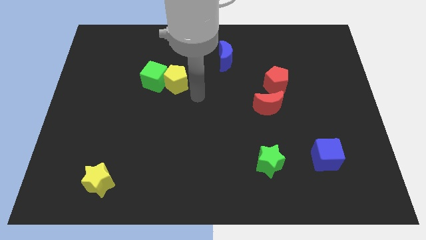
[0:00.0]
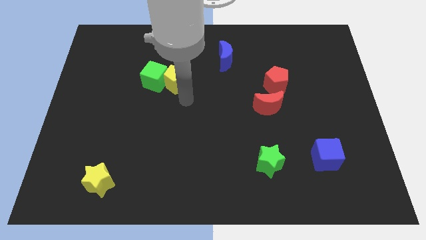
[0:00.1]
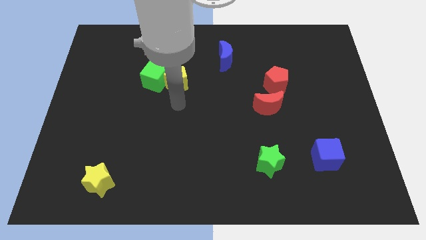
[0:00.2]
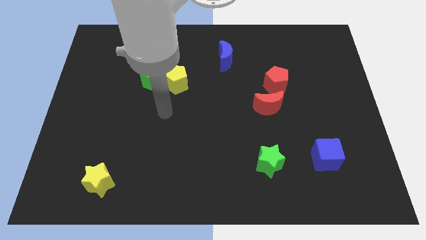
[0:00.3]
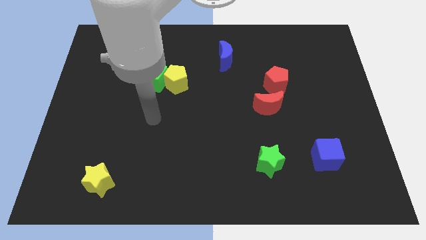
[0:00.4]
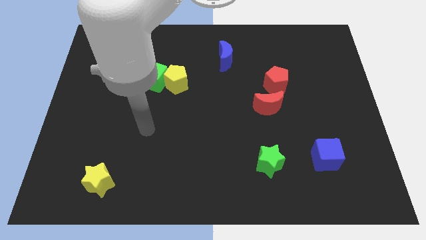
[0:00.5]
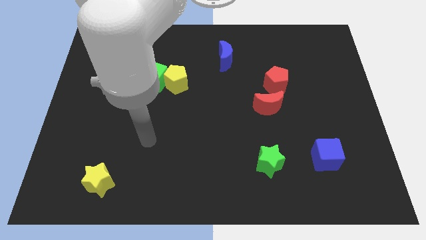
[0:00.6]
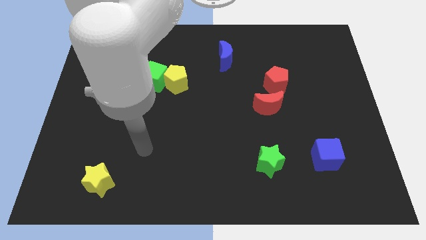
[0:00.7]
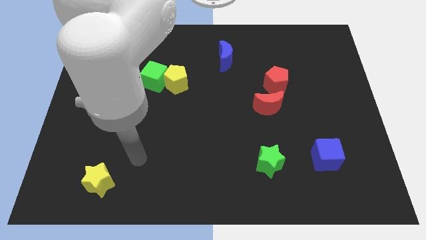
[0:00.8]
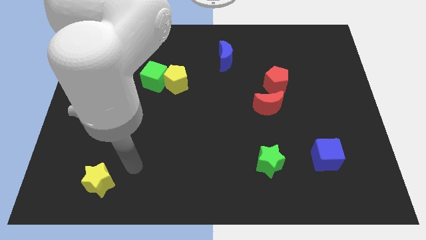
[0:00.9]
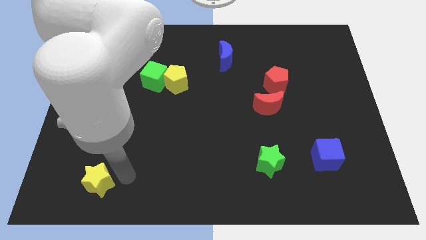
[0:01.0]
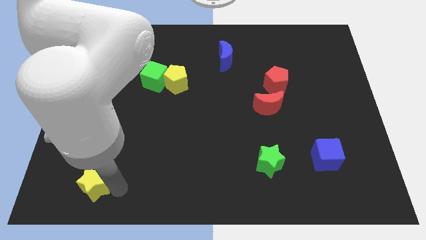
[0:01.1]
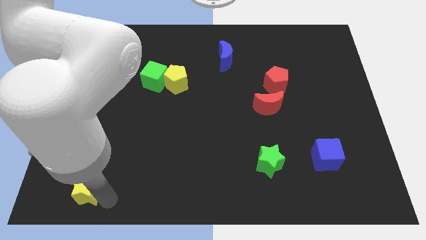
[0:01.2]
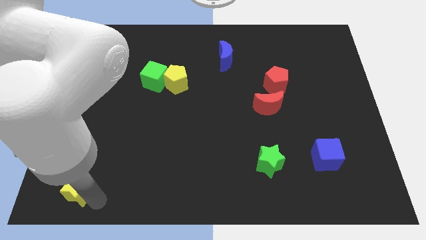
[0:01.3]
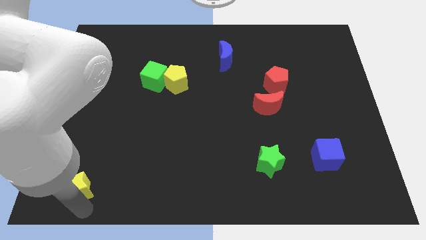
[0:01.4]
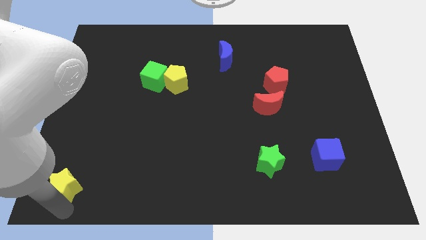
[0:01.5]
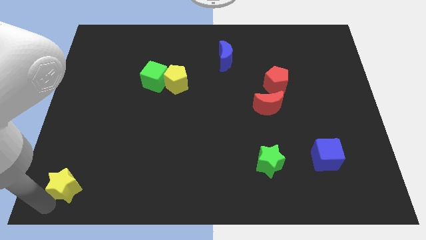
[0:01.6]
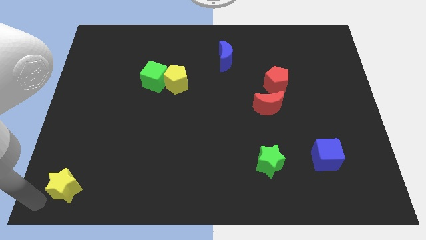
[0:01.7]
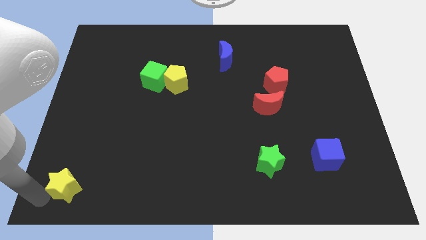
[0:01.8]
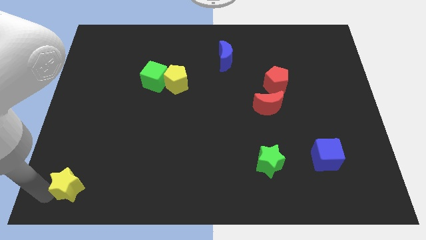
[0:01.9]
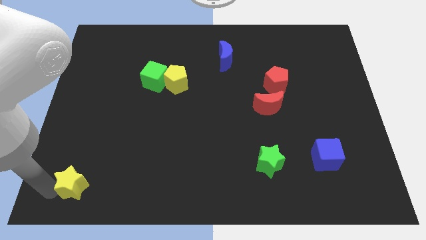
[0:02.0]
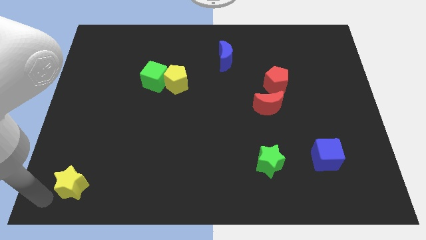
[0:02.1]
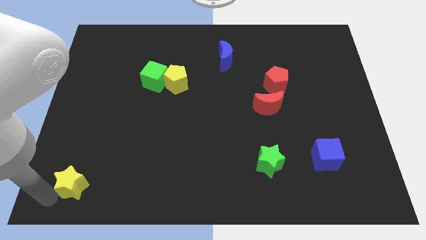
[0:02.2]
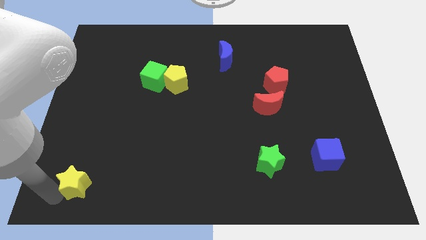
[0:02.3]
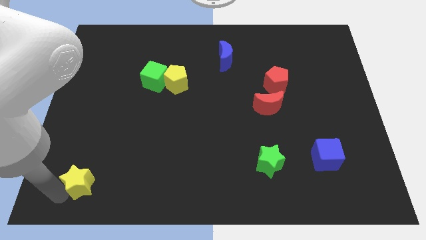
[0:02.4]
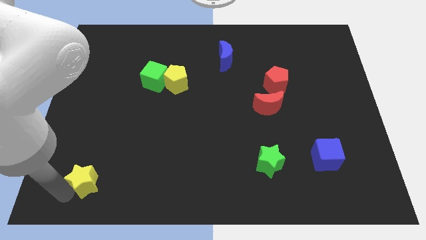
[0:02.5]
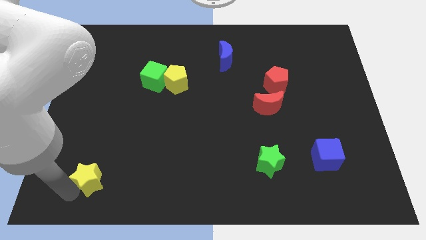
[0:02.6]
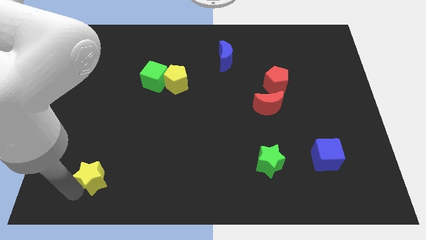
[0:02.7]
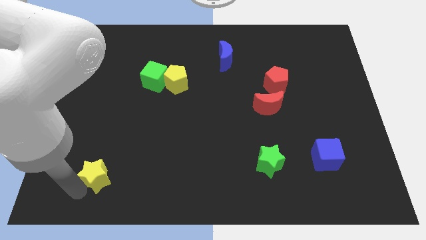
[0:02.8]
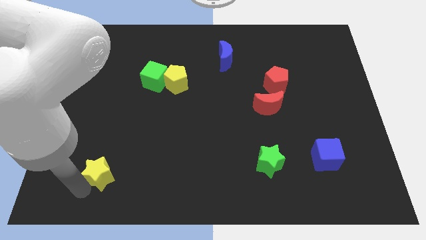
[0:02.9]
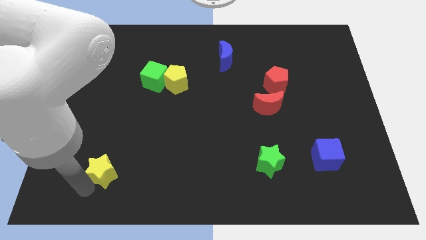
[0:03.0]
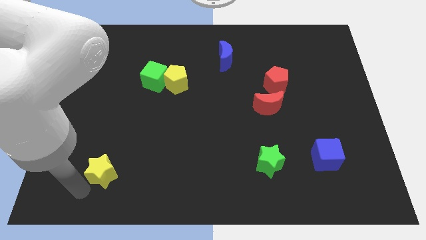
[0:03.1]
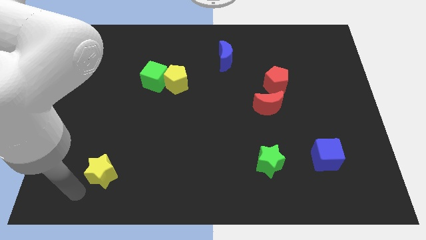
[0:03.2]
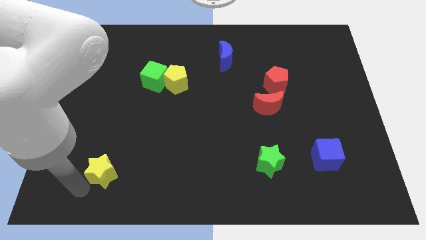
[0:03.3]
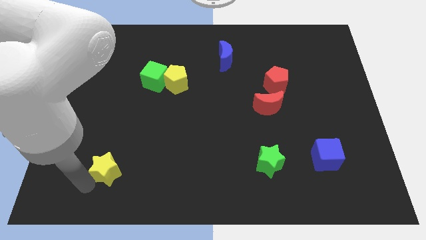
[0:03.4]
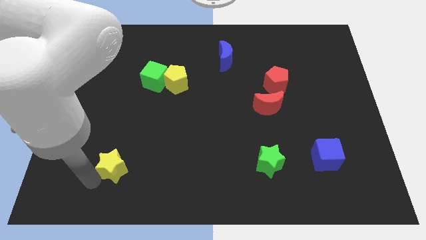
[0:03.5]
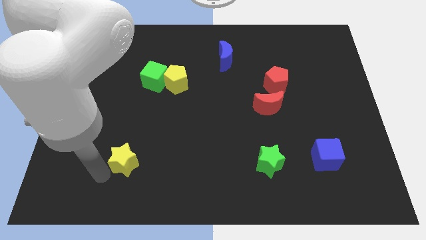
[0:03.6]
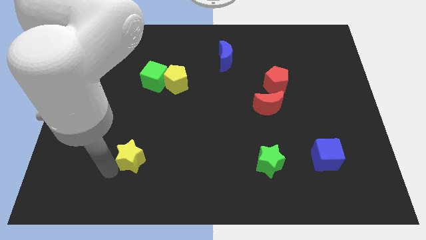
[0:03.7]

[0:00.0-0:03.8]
move the yellow star upwards and then to the right somewhat

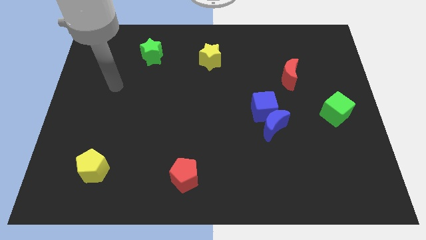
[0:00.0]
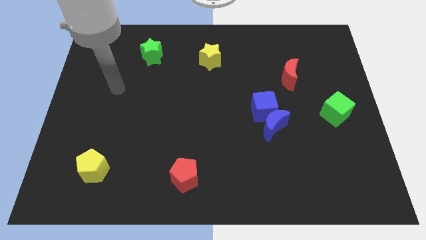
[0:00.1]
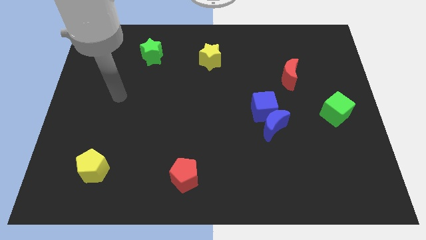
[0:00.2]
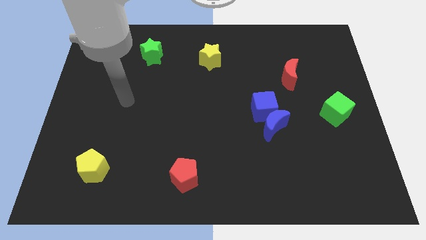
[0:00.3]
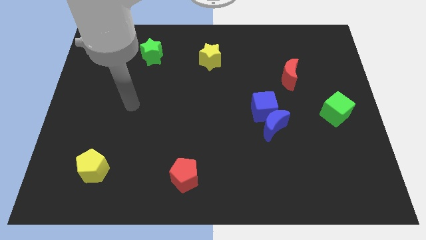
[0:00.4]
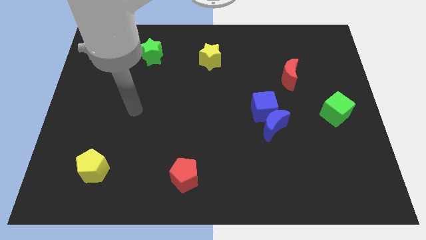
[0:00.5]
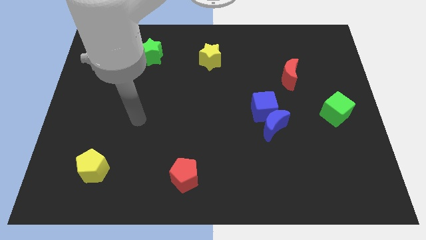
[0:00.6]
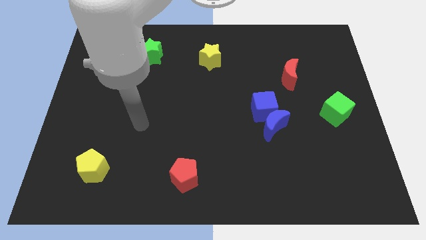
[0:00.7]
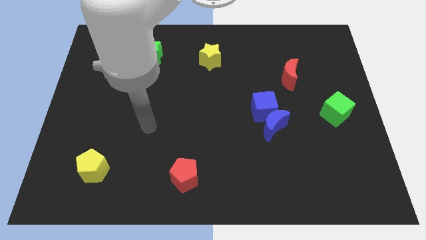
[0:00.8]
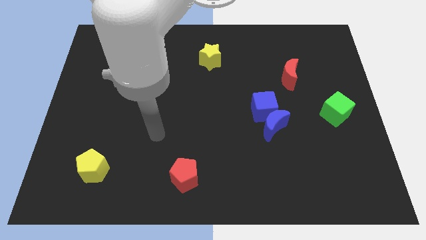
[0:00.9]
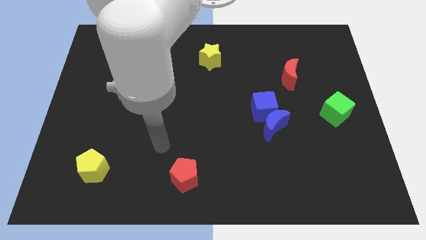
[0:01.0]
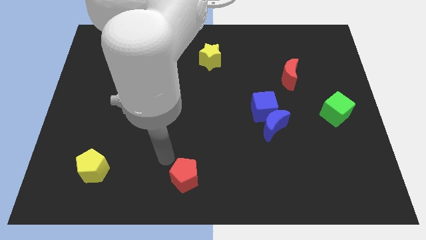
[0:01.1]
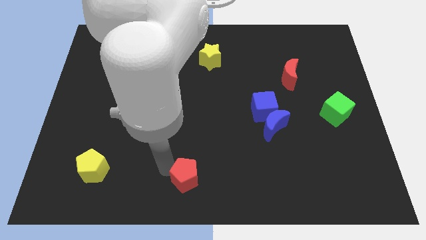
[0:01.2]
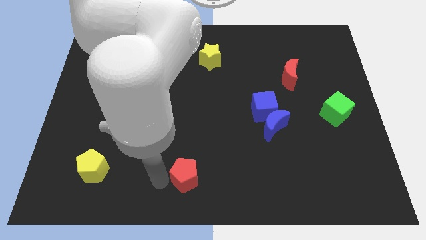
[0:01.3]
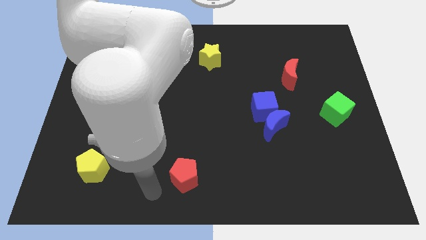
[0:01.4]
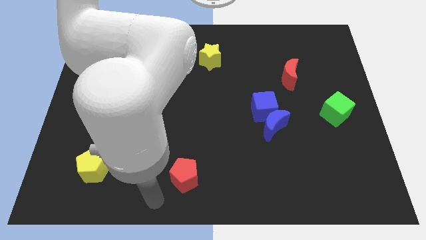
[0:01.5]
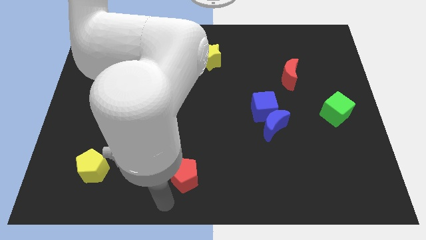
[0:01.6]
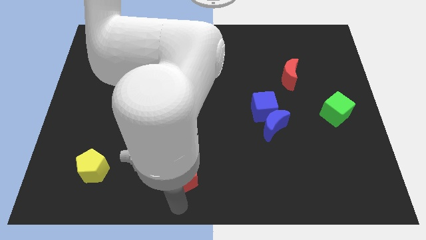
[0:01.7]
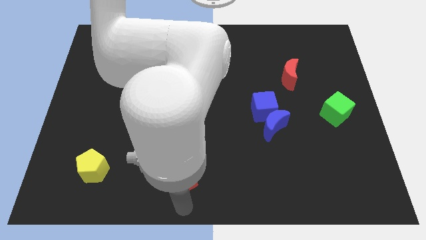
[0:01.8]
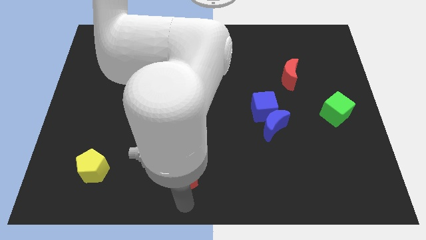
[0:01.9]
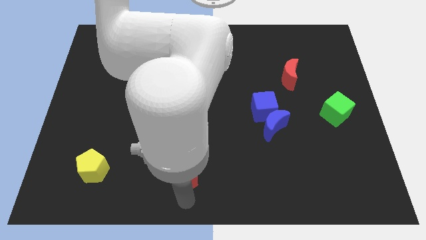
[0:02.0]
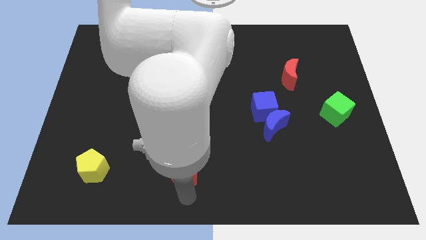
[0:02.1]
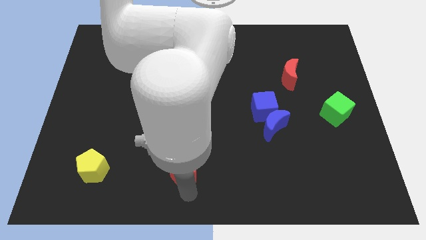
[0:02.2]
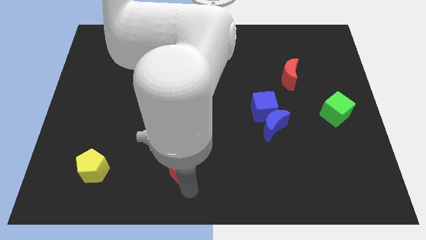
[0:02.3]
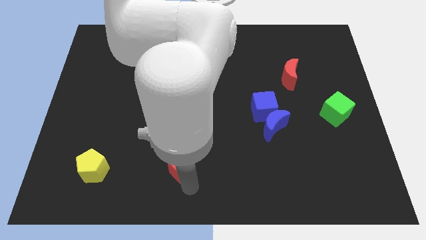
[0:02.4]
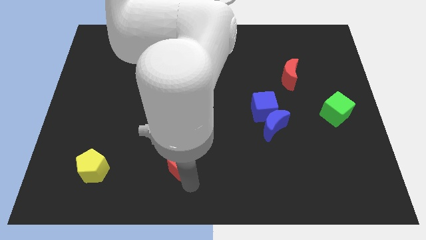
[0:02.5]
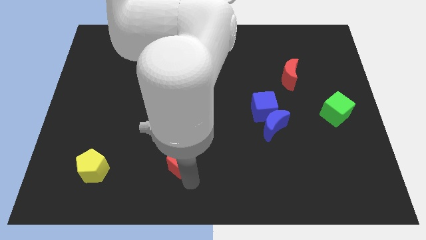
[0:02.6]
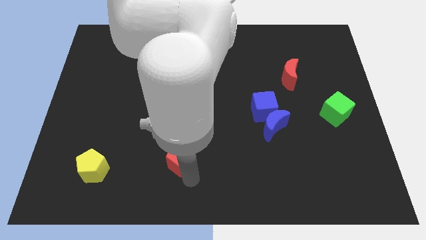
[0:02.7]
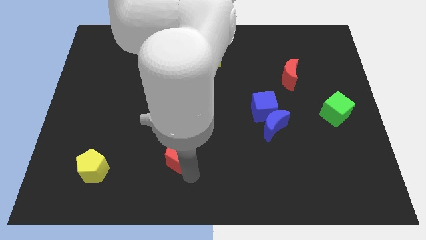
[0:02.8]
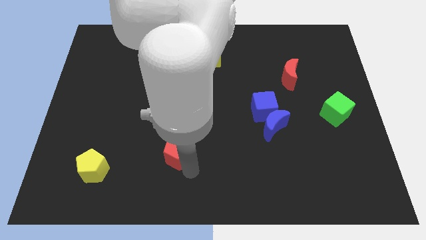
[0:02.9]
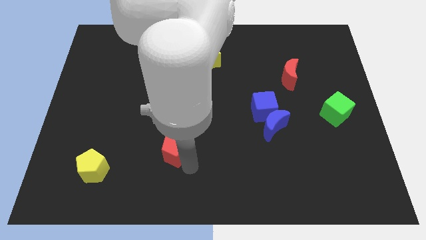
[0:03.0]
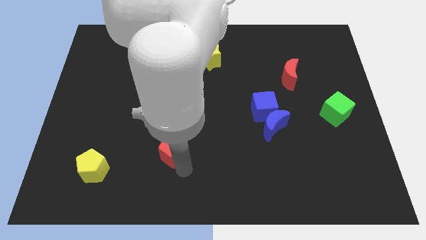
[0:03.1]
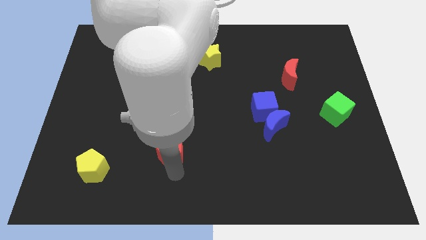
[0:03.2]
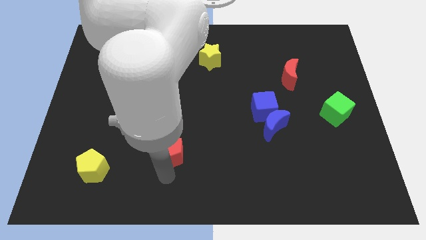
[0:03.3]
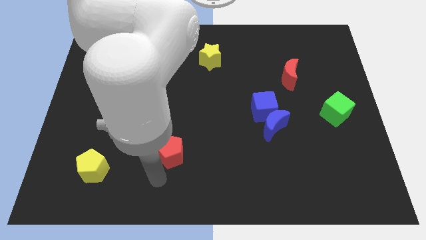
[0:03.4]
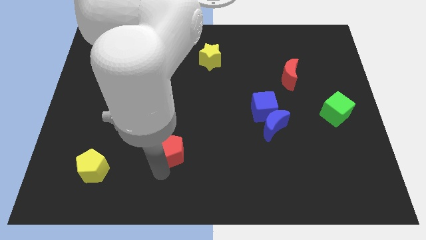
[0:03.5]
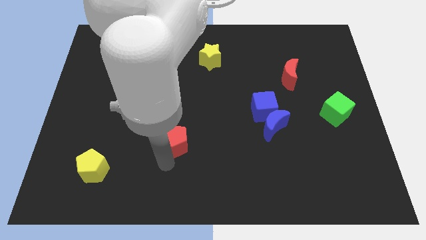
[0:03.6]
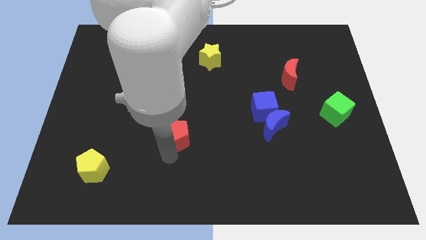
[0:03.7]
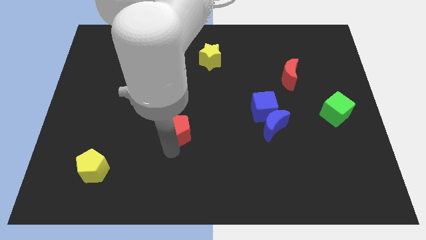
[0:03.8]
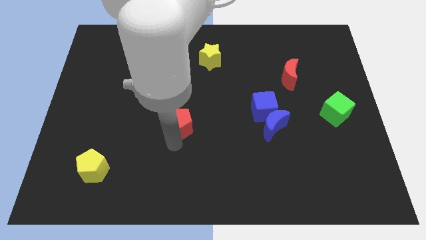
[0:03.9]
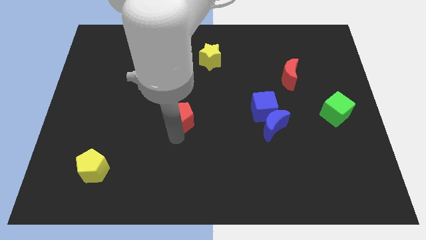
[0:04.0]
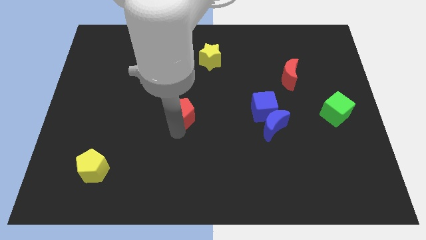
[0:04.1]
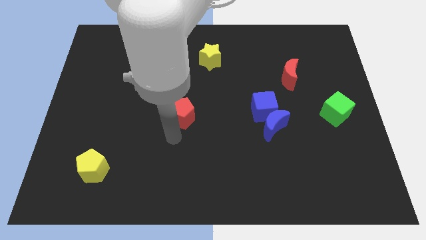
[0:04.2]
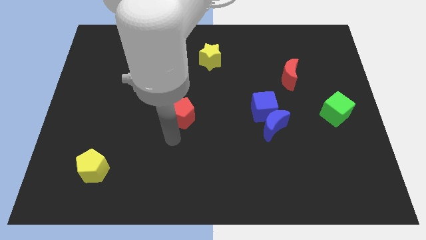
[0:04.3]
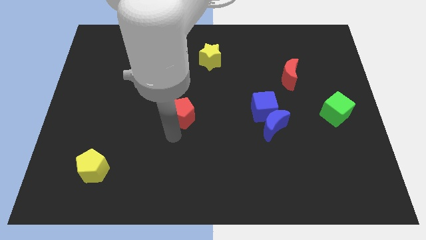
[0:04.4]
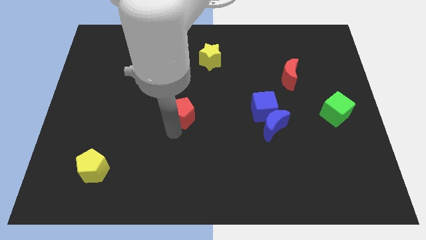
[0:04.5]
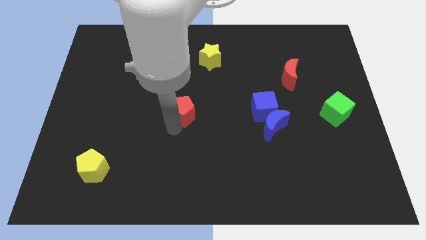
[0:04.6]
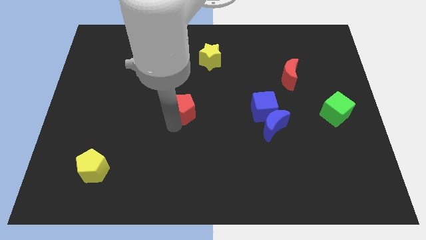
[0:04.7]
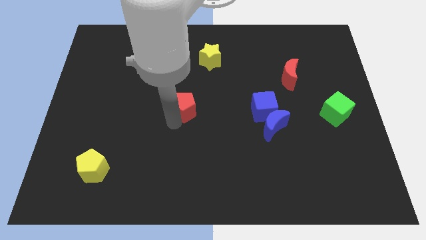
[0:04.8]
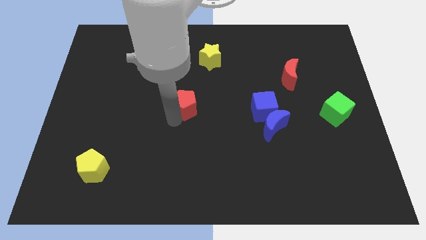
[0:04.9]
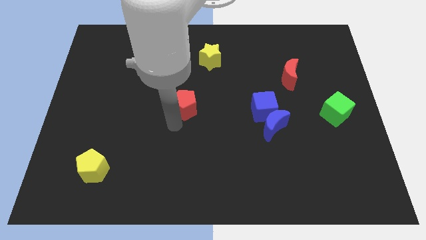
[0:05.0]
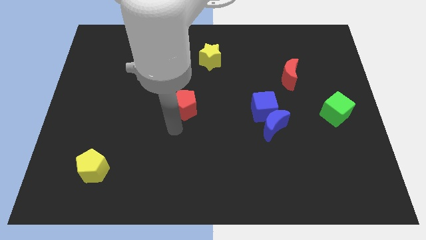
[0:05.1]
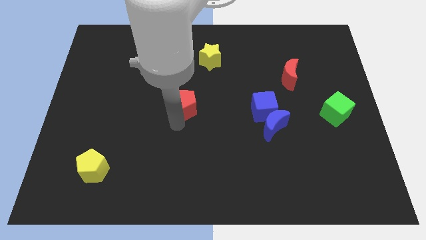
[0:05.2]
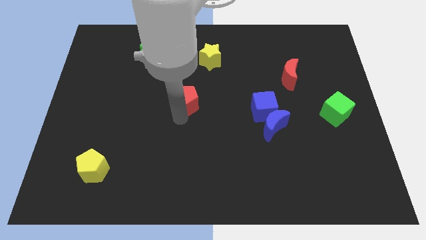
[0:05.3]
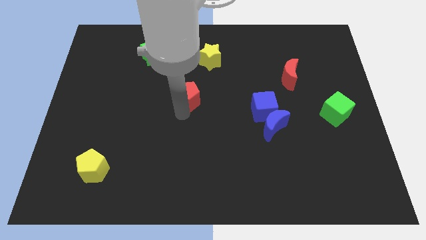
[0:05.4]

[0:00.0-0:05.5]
push the red pentagon upwards
